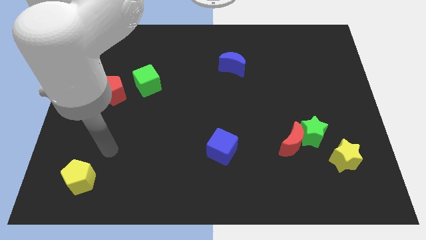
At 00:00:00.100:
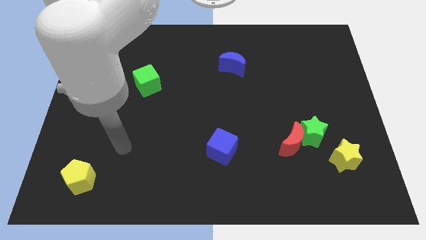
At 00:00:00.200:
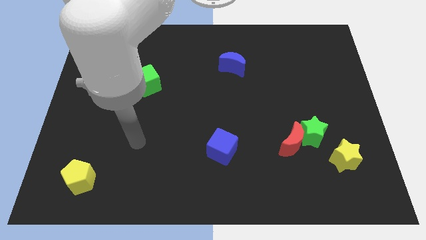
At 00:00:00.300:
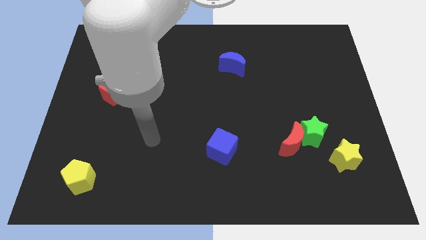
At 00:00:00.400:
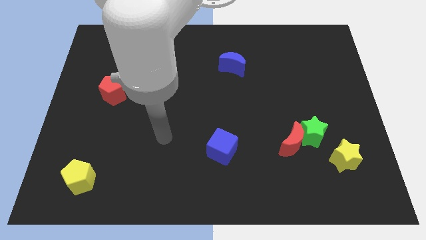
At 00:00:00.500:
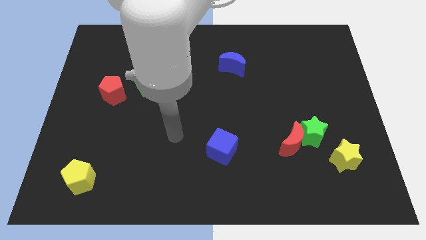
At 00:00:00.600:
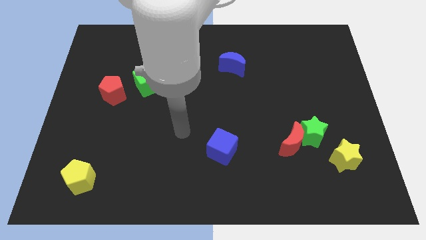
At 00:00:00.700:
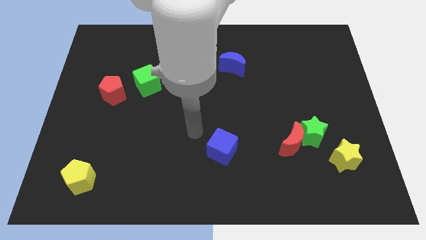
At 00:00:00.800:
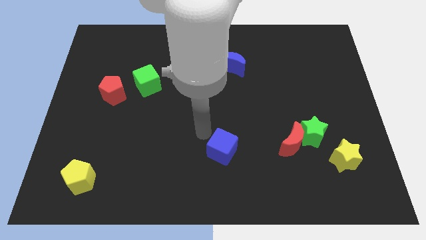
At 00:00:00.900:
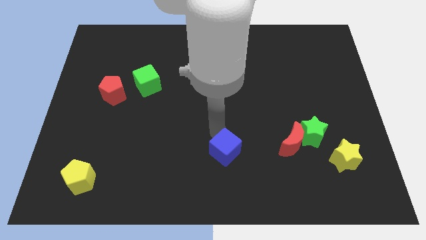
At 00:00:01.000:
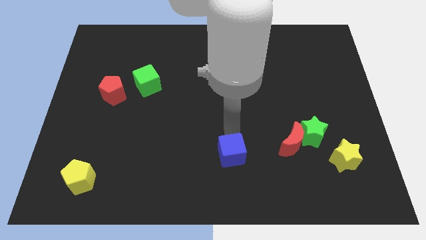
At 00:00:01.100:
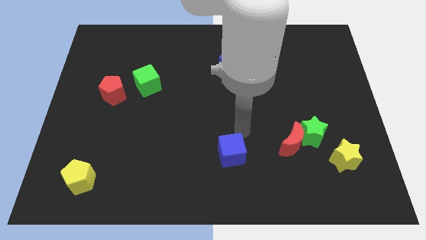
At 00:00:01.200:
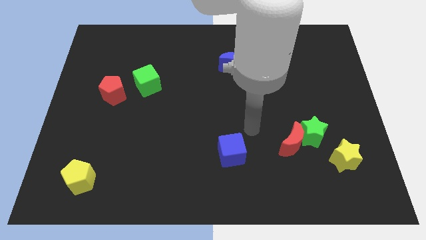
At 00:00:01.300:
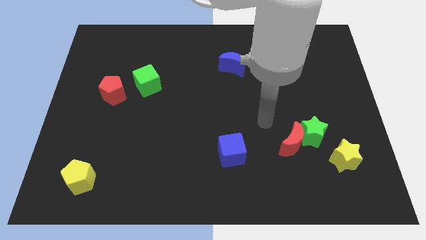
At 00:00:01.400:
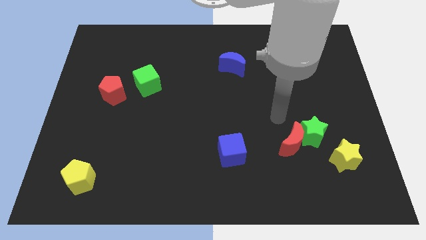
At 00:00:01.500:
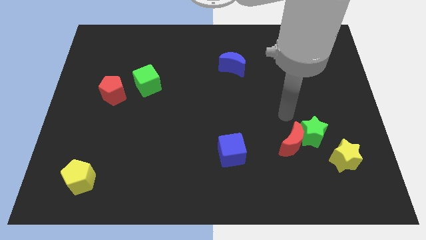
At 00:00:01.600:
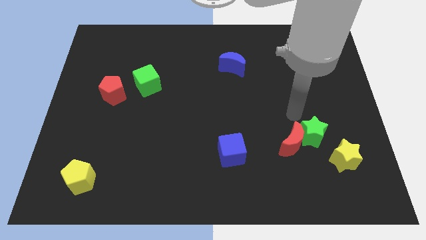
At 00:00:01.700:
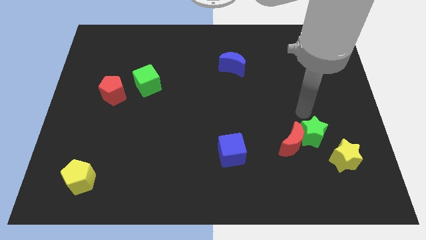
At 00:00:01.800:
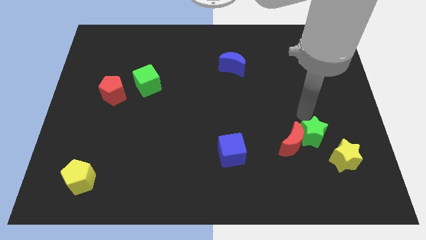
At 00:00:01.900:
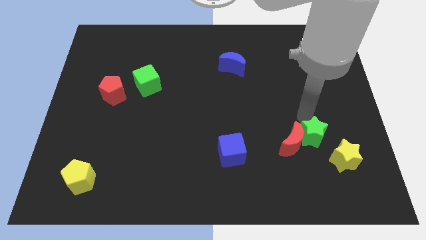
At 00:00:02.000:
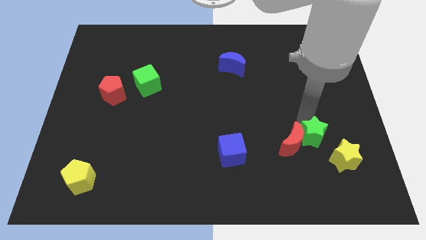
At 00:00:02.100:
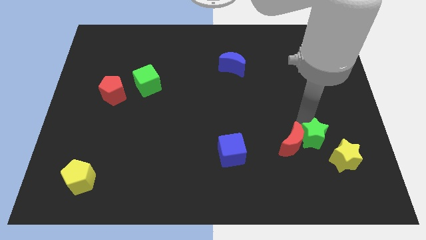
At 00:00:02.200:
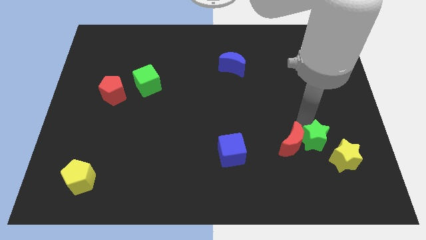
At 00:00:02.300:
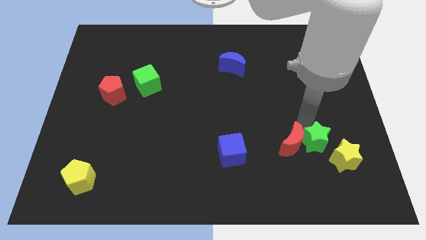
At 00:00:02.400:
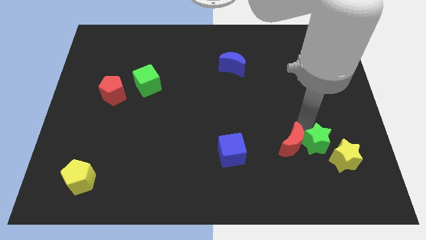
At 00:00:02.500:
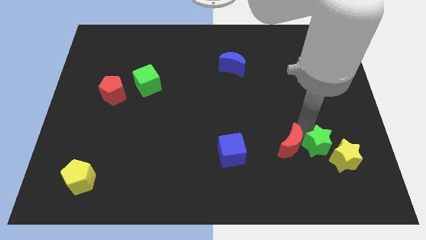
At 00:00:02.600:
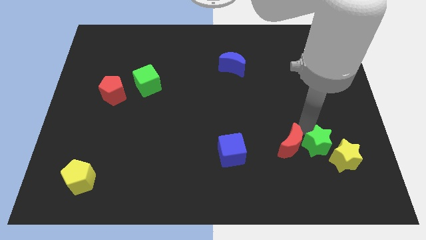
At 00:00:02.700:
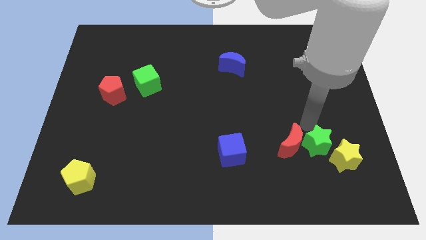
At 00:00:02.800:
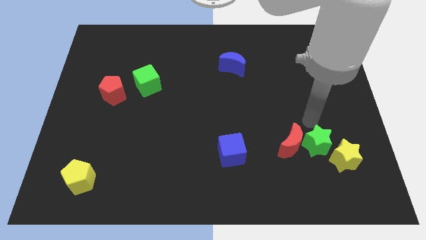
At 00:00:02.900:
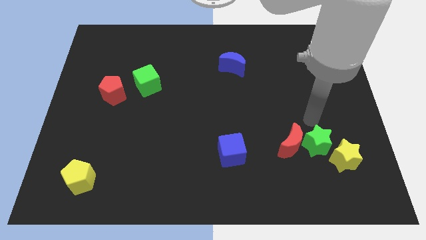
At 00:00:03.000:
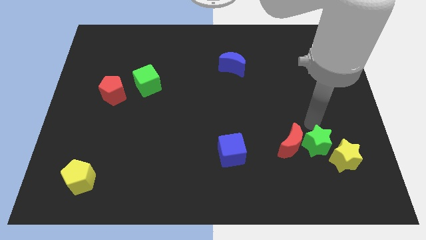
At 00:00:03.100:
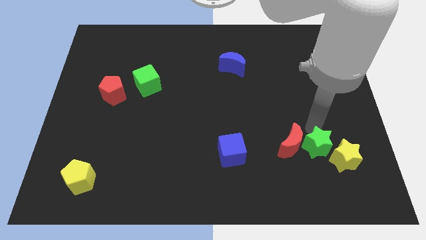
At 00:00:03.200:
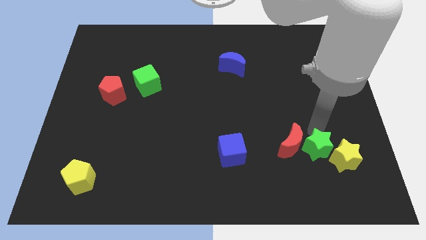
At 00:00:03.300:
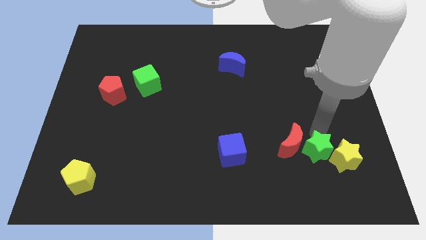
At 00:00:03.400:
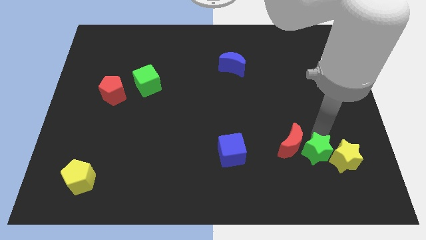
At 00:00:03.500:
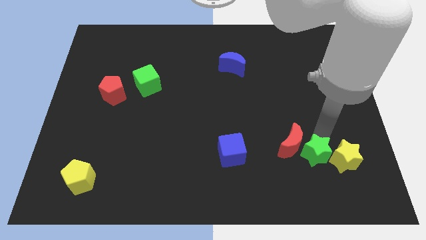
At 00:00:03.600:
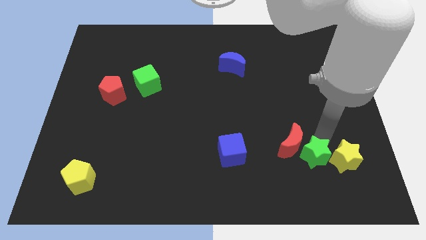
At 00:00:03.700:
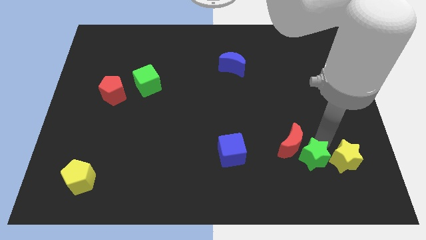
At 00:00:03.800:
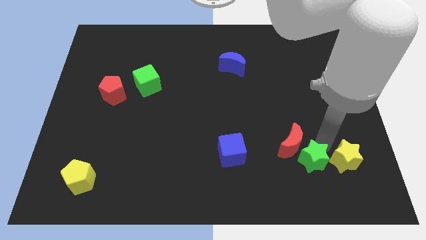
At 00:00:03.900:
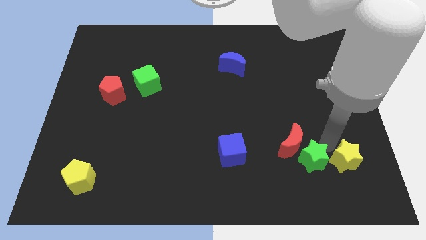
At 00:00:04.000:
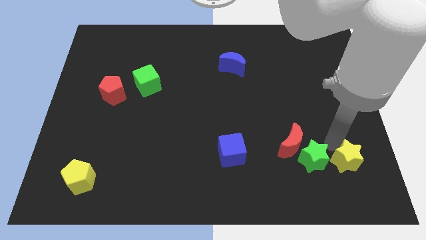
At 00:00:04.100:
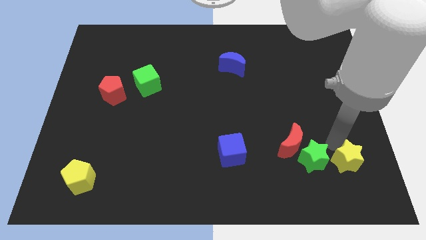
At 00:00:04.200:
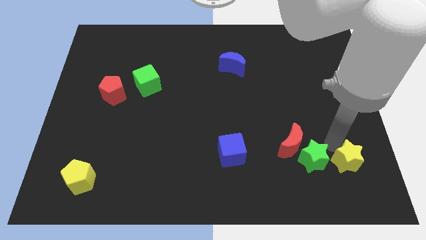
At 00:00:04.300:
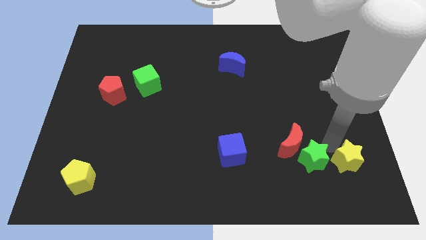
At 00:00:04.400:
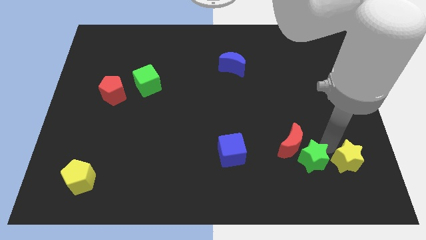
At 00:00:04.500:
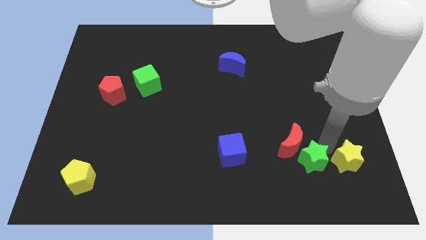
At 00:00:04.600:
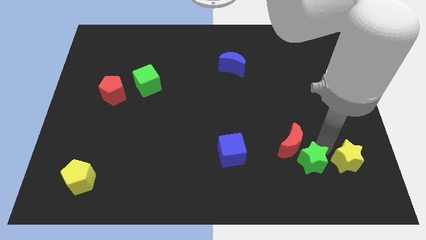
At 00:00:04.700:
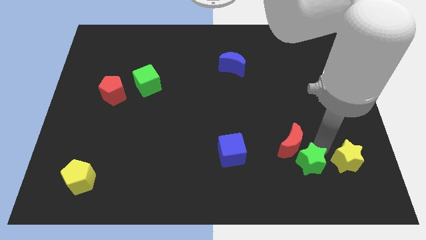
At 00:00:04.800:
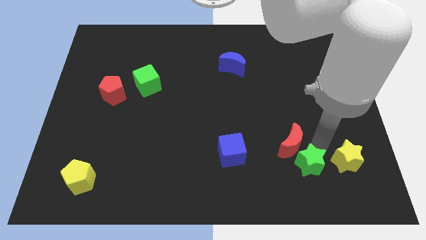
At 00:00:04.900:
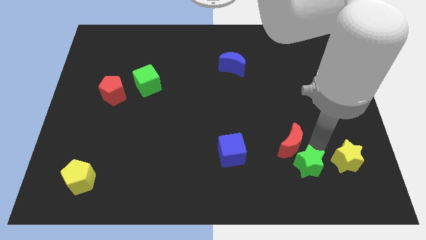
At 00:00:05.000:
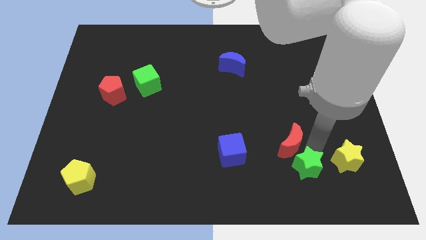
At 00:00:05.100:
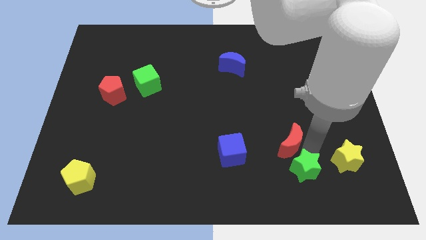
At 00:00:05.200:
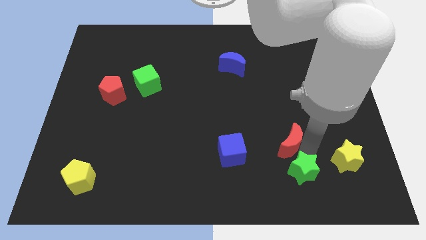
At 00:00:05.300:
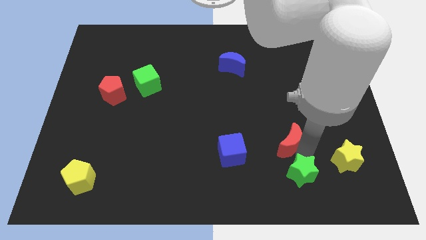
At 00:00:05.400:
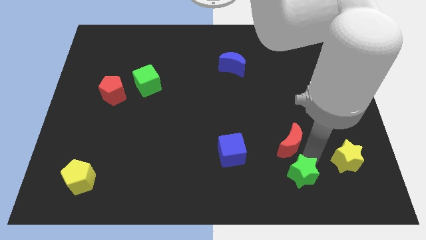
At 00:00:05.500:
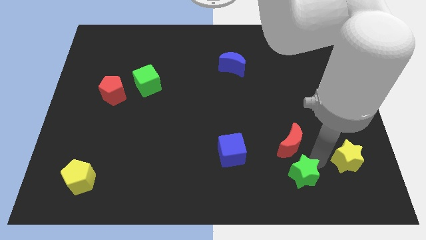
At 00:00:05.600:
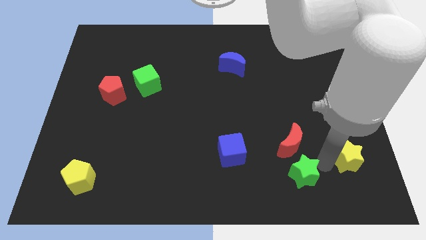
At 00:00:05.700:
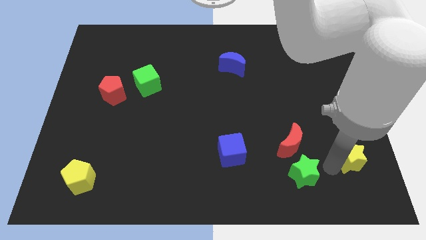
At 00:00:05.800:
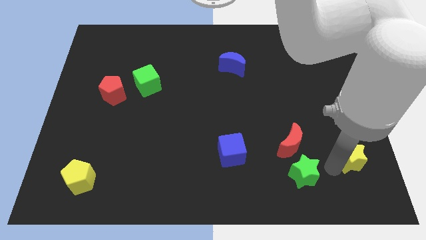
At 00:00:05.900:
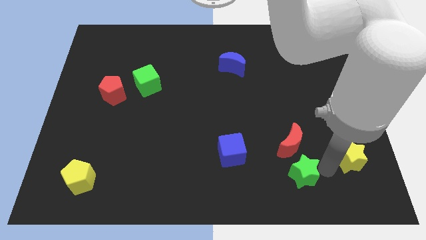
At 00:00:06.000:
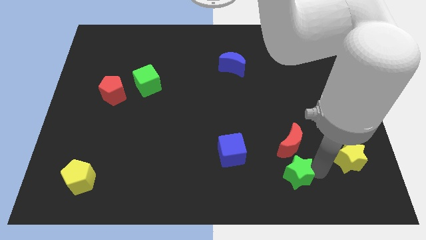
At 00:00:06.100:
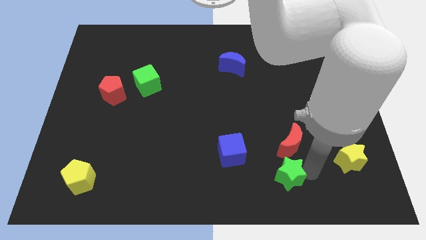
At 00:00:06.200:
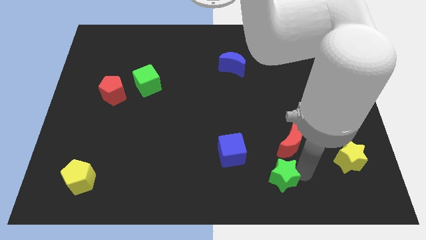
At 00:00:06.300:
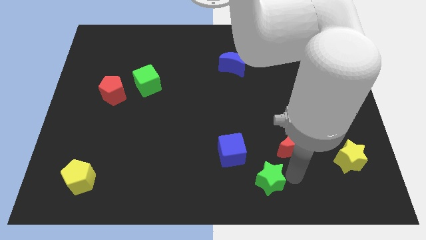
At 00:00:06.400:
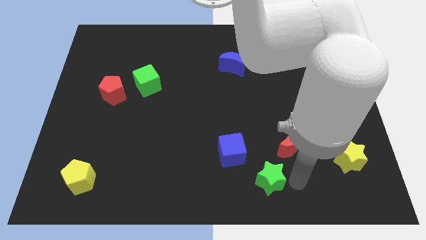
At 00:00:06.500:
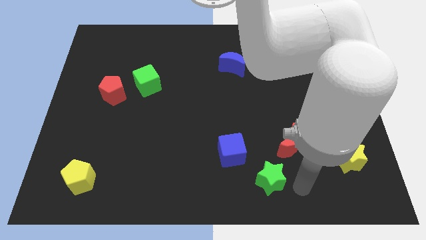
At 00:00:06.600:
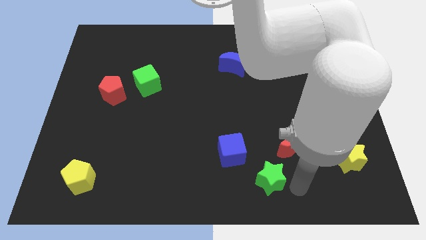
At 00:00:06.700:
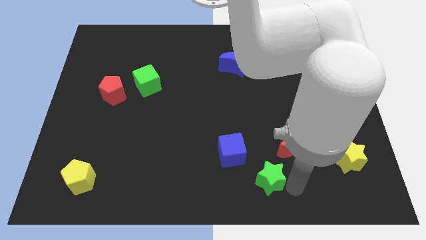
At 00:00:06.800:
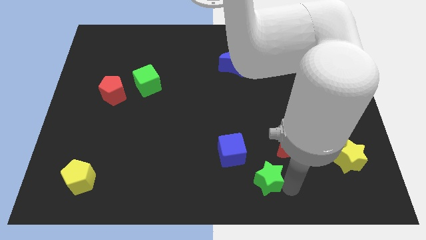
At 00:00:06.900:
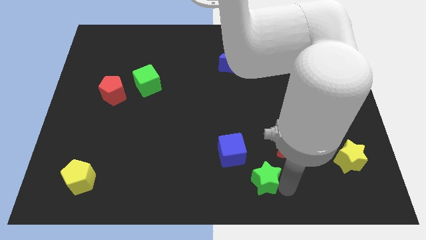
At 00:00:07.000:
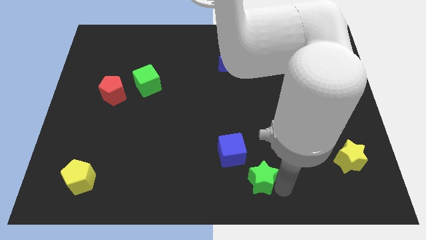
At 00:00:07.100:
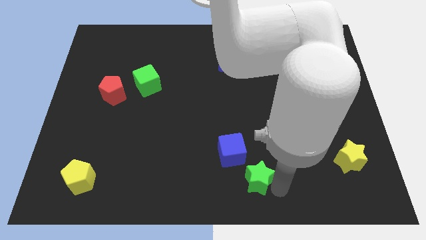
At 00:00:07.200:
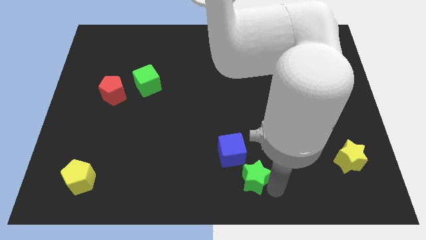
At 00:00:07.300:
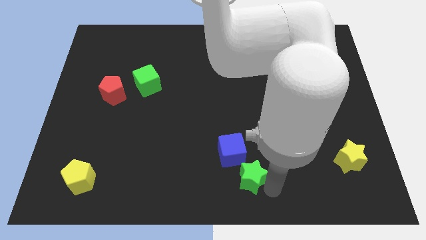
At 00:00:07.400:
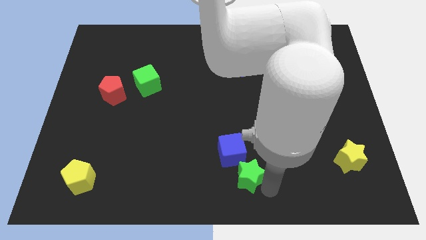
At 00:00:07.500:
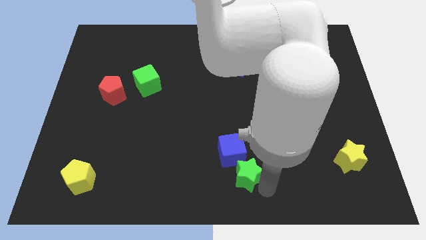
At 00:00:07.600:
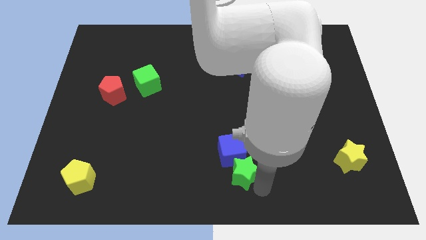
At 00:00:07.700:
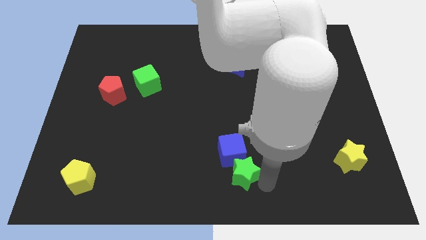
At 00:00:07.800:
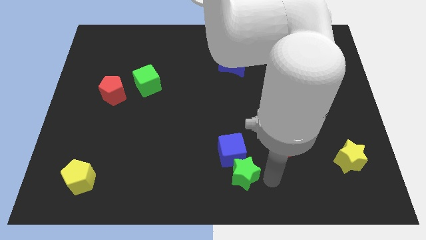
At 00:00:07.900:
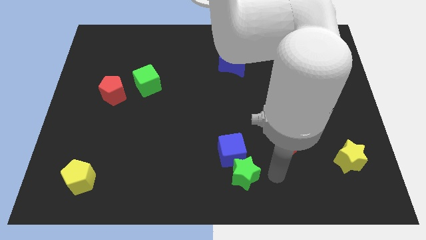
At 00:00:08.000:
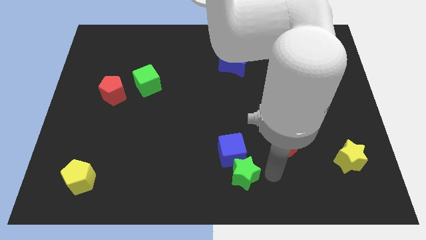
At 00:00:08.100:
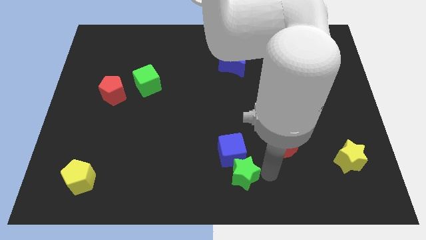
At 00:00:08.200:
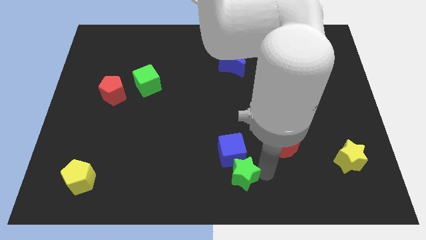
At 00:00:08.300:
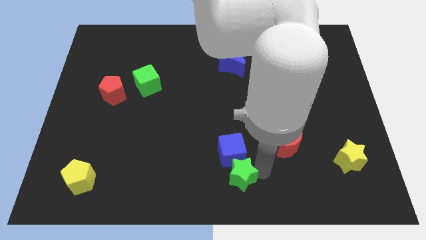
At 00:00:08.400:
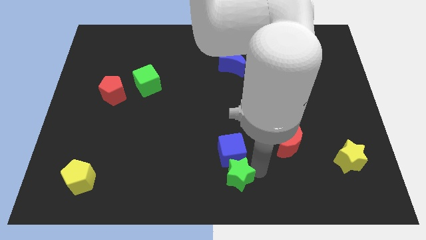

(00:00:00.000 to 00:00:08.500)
slide the green star diagonally down and to the left of the blue cube
